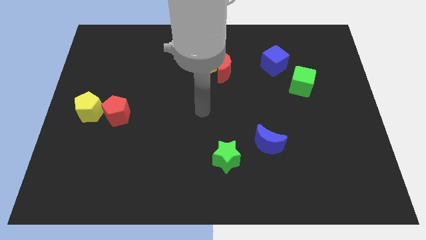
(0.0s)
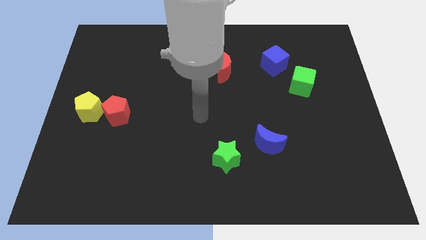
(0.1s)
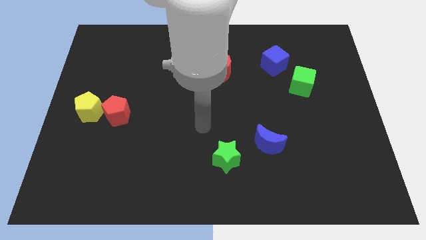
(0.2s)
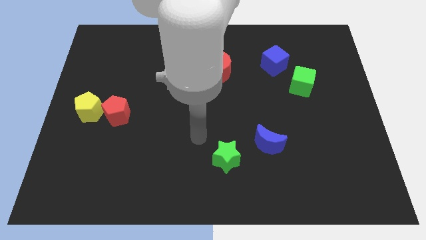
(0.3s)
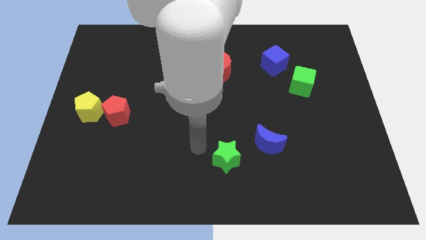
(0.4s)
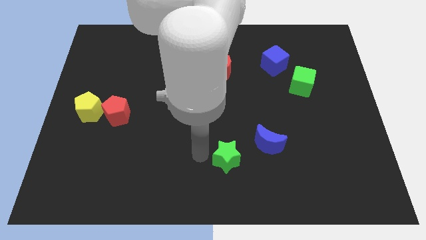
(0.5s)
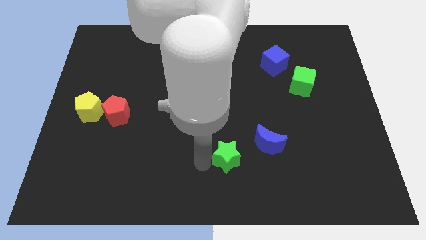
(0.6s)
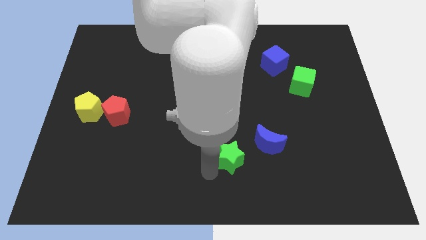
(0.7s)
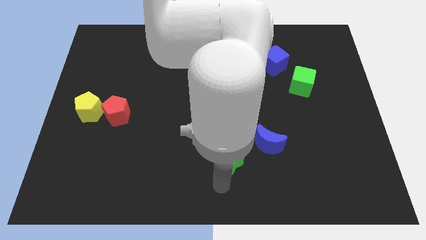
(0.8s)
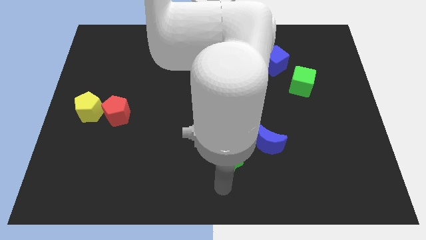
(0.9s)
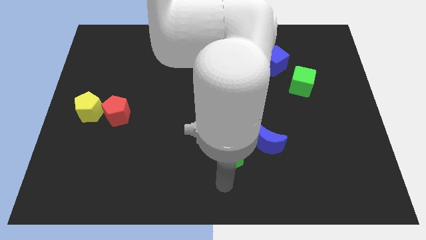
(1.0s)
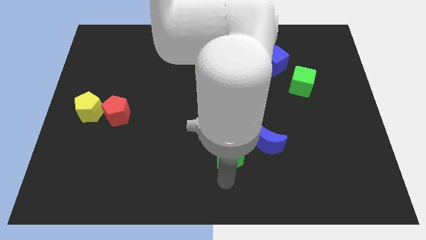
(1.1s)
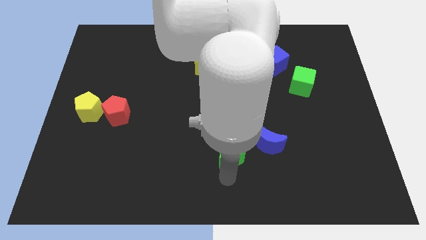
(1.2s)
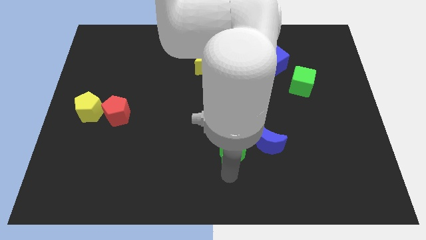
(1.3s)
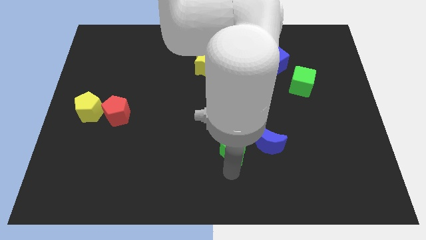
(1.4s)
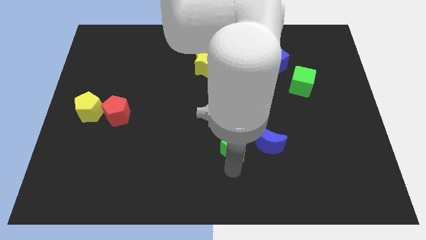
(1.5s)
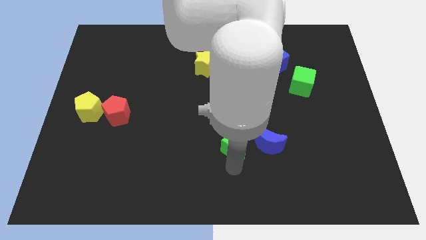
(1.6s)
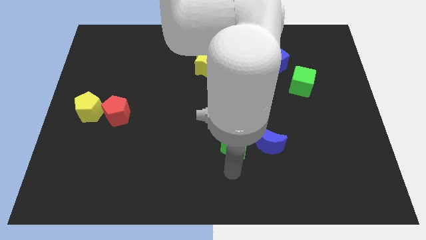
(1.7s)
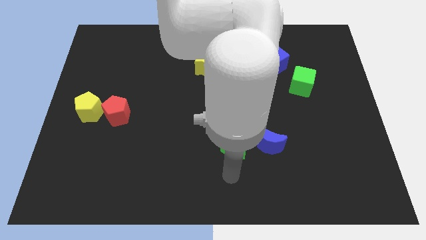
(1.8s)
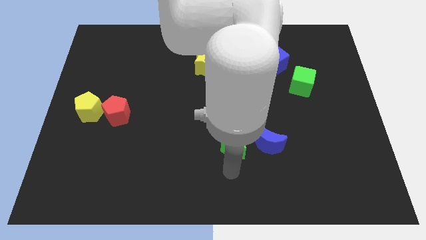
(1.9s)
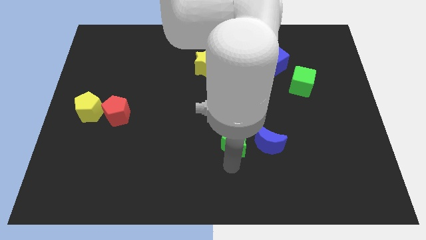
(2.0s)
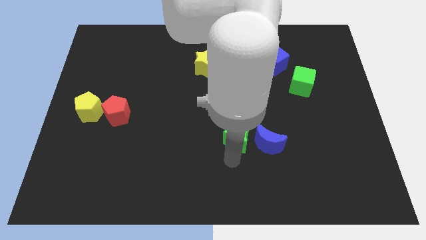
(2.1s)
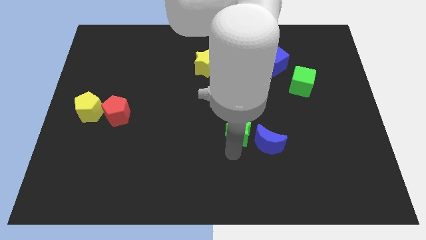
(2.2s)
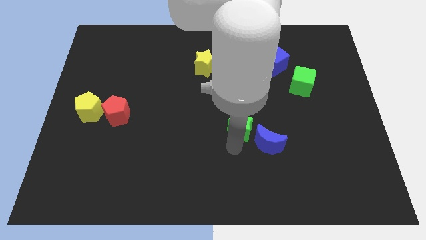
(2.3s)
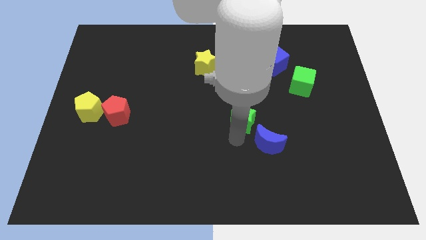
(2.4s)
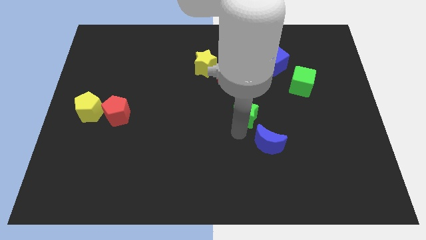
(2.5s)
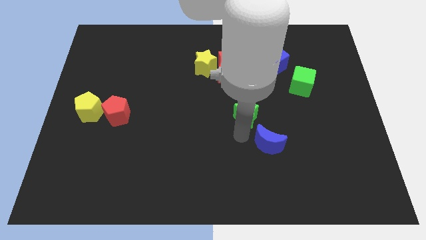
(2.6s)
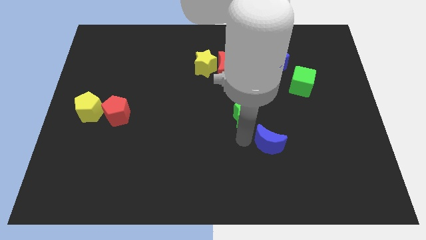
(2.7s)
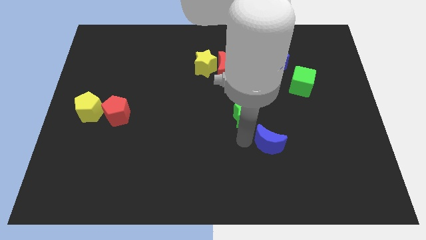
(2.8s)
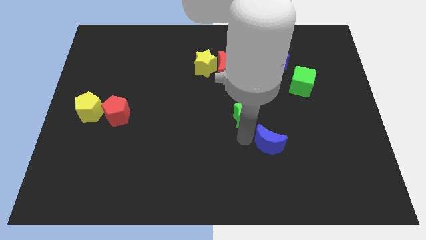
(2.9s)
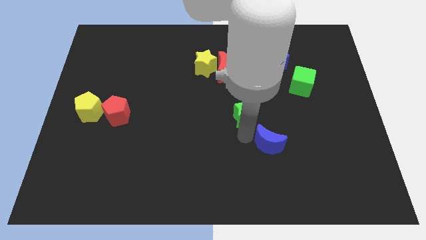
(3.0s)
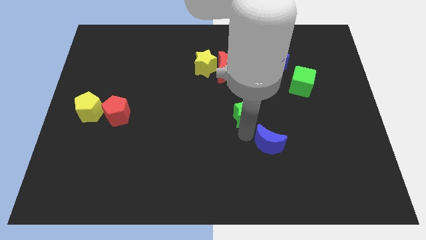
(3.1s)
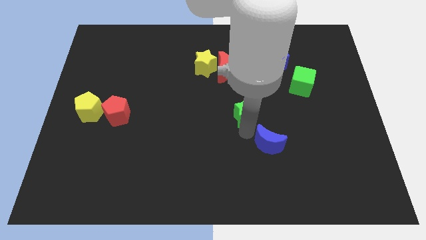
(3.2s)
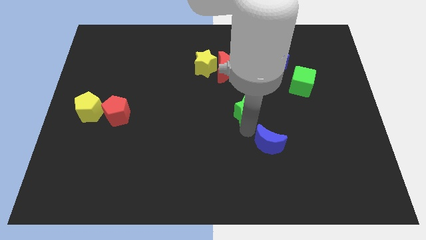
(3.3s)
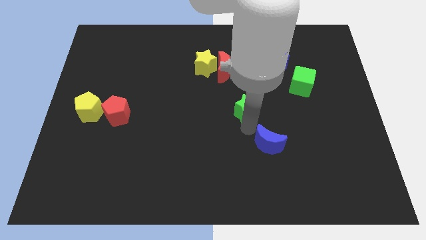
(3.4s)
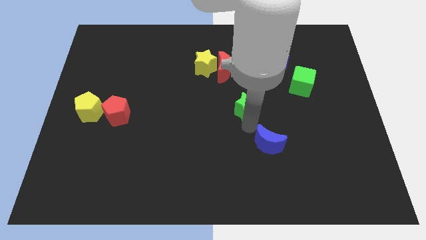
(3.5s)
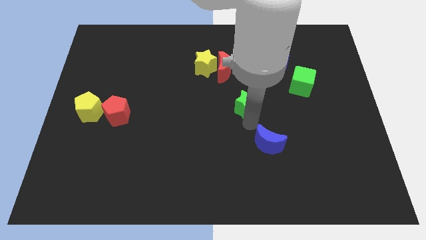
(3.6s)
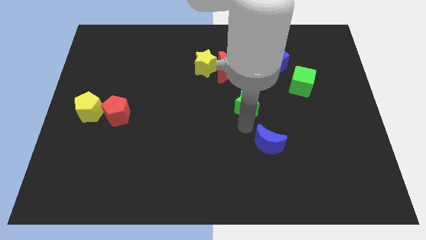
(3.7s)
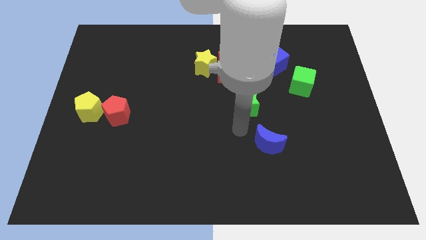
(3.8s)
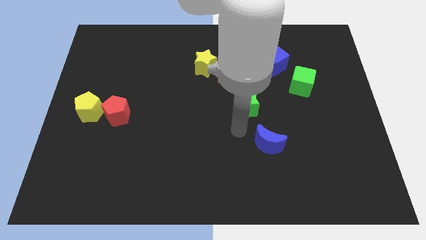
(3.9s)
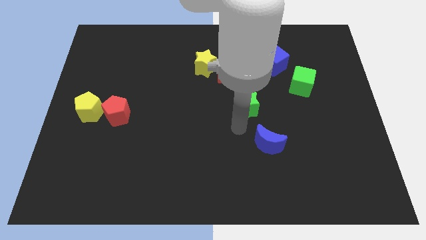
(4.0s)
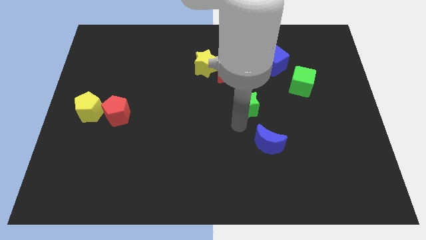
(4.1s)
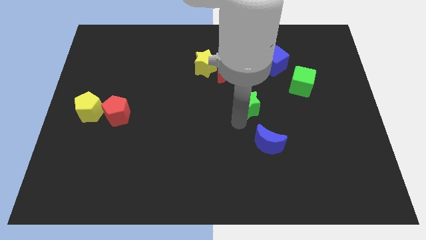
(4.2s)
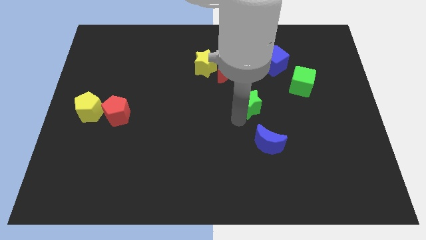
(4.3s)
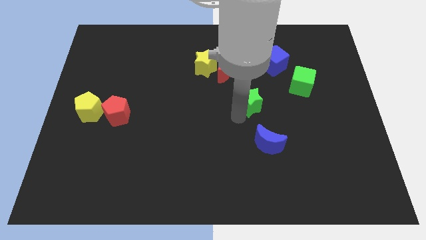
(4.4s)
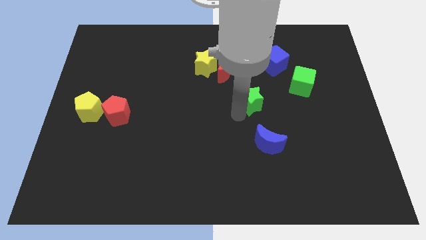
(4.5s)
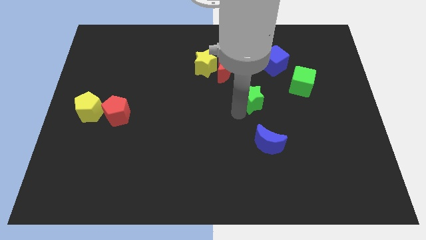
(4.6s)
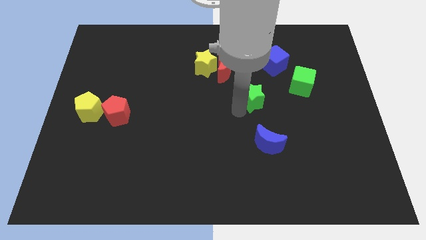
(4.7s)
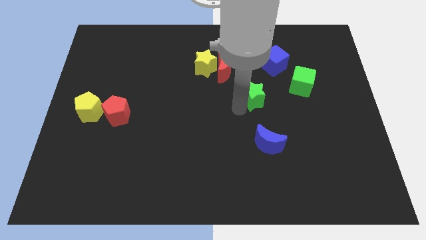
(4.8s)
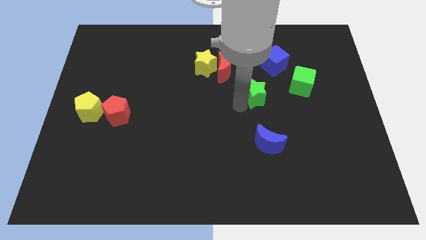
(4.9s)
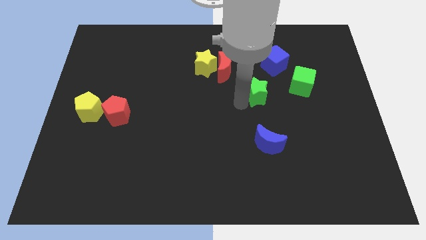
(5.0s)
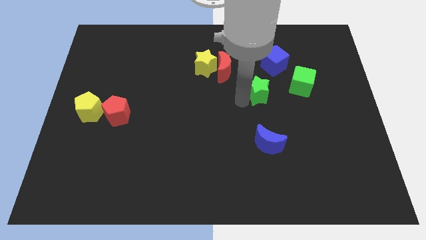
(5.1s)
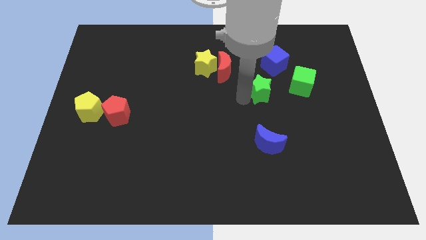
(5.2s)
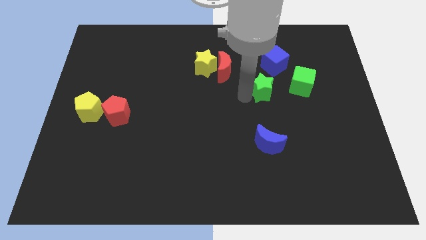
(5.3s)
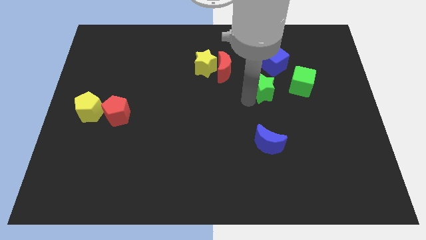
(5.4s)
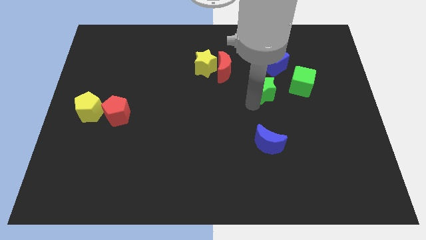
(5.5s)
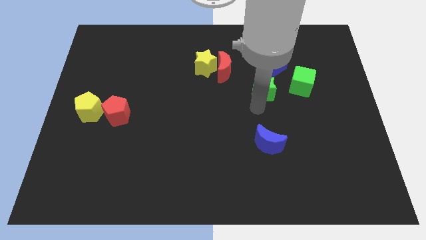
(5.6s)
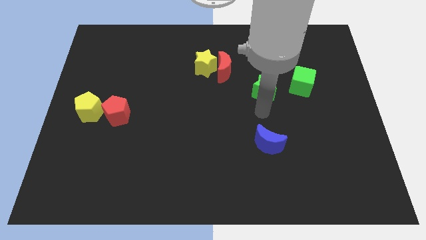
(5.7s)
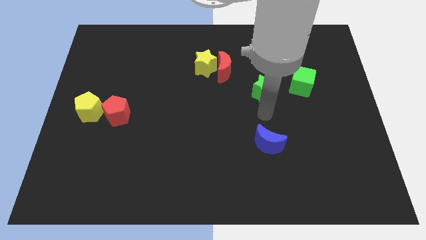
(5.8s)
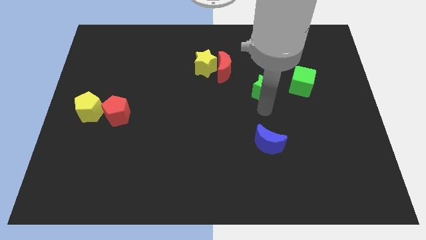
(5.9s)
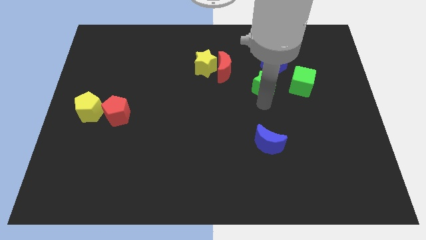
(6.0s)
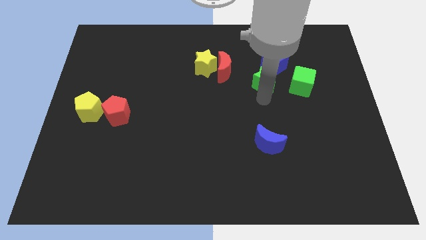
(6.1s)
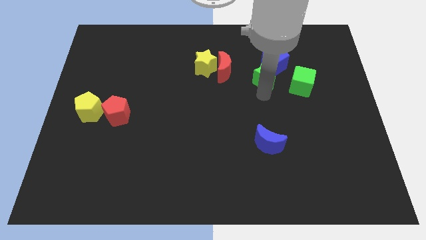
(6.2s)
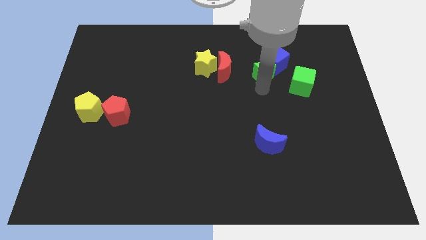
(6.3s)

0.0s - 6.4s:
slide the green star towards the blue cube

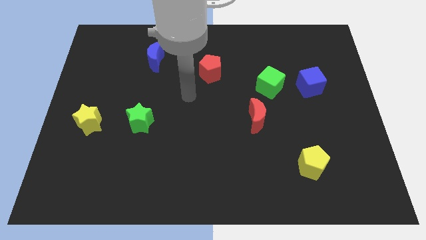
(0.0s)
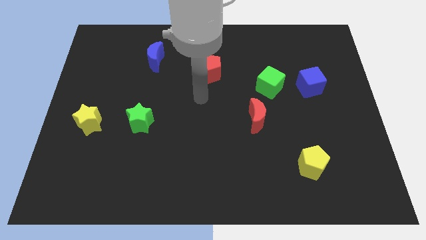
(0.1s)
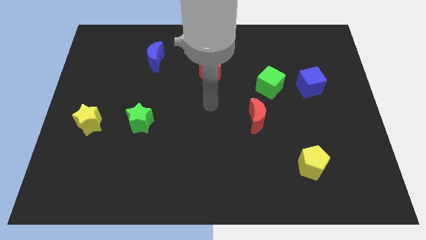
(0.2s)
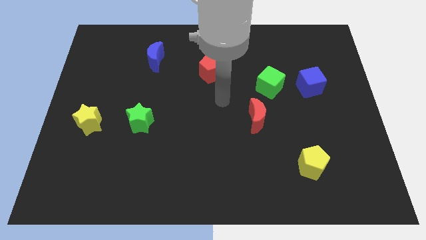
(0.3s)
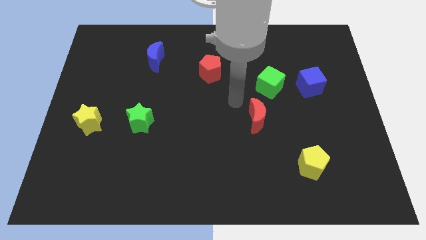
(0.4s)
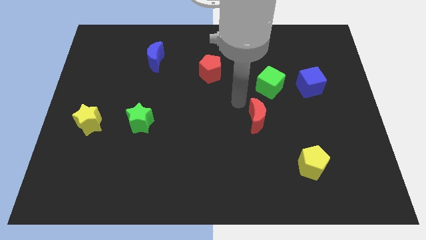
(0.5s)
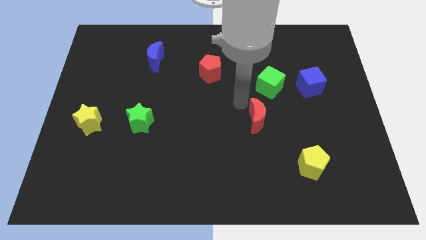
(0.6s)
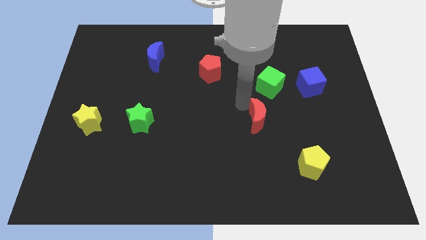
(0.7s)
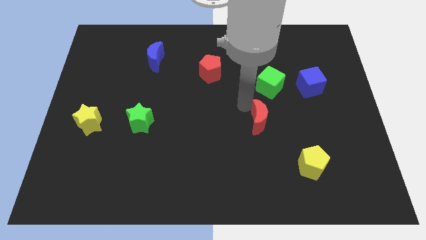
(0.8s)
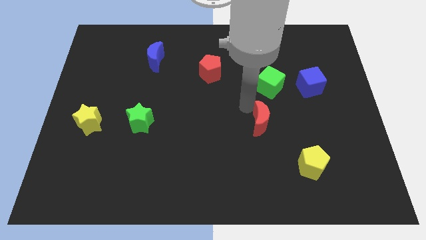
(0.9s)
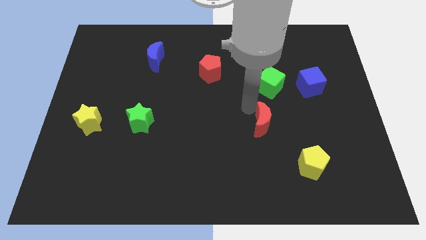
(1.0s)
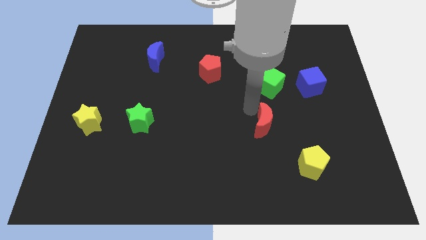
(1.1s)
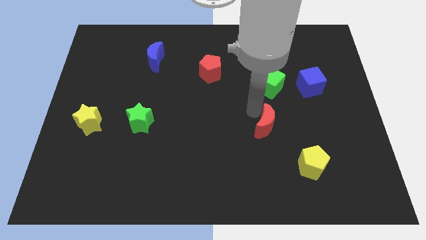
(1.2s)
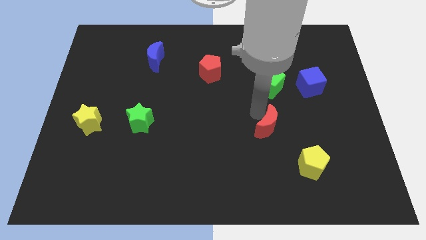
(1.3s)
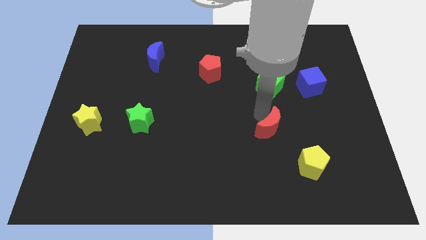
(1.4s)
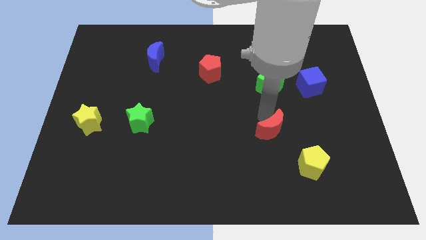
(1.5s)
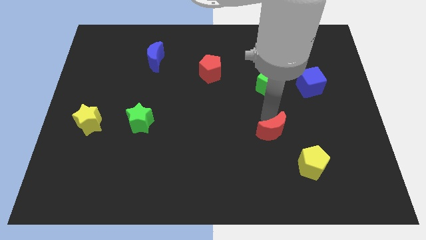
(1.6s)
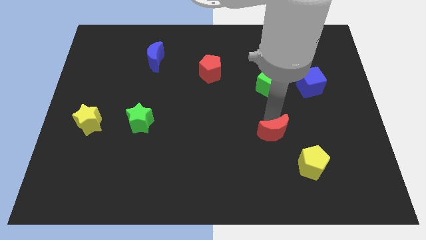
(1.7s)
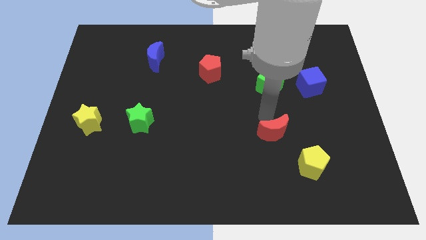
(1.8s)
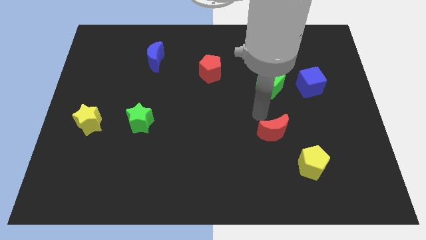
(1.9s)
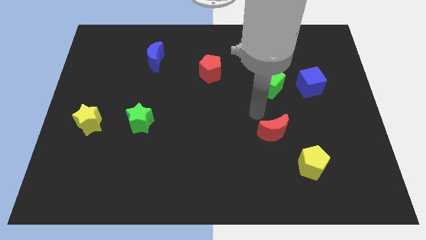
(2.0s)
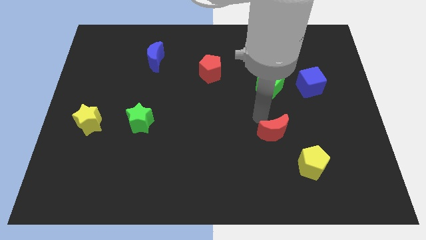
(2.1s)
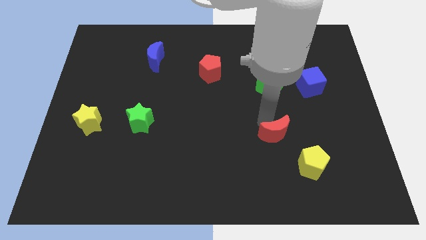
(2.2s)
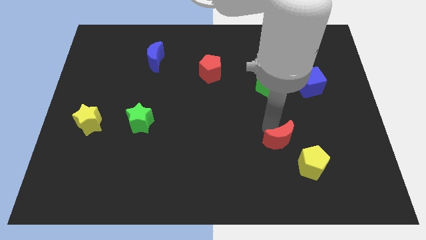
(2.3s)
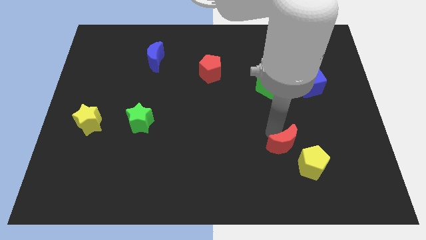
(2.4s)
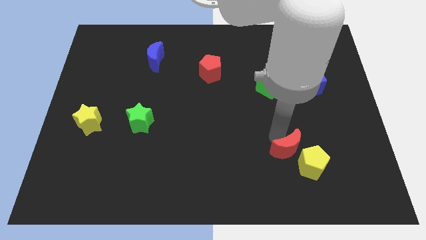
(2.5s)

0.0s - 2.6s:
slide the red moon close to the yellow pentagon
